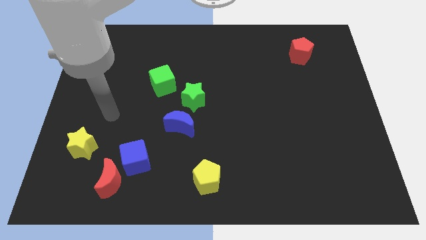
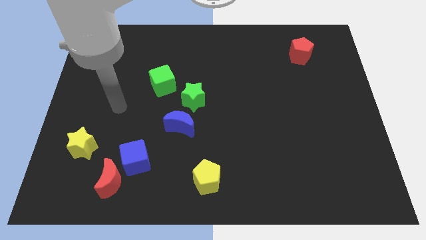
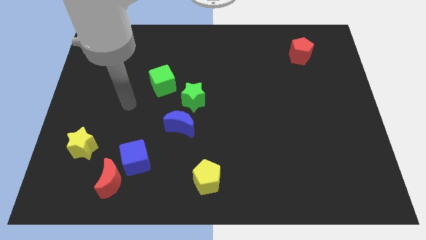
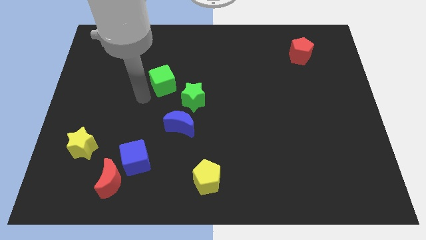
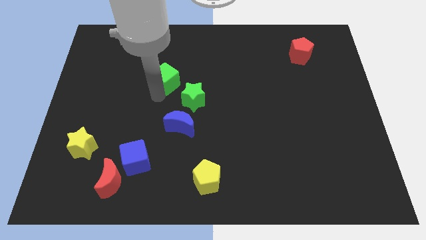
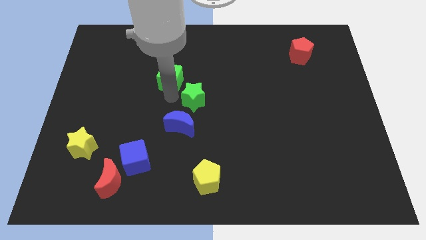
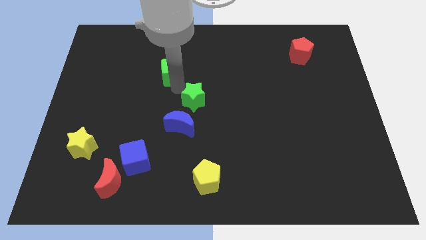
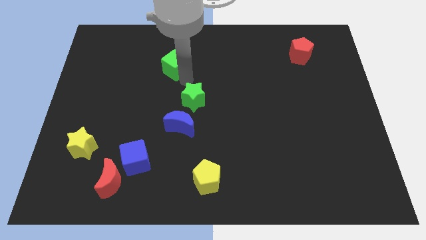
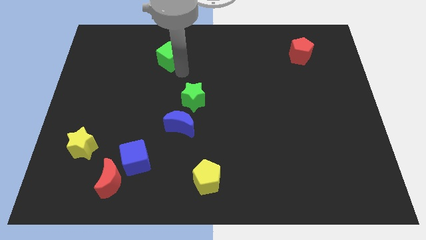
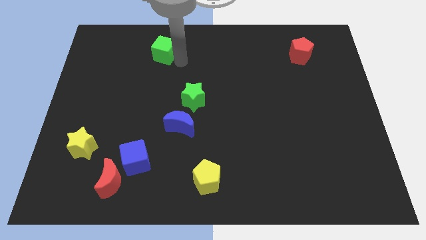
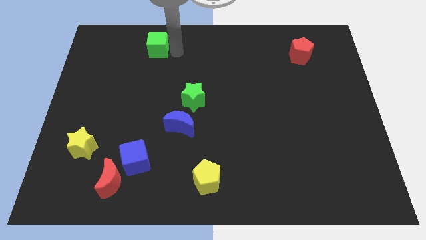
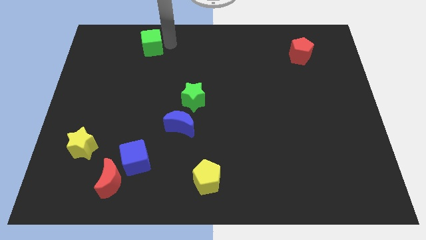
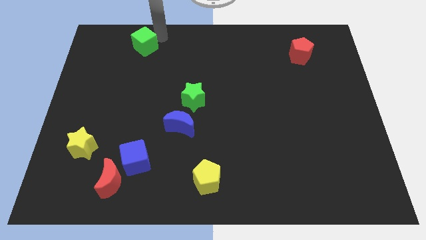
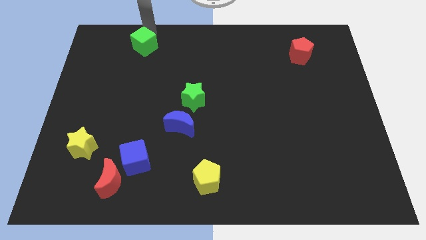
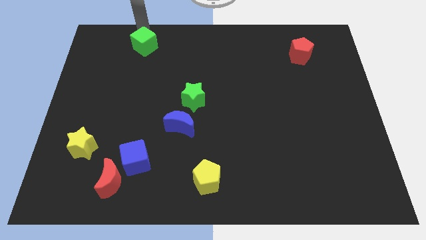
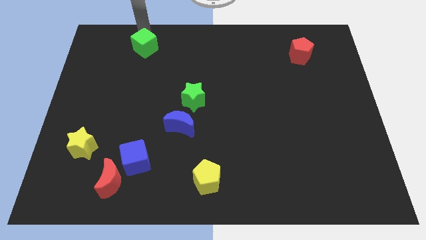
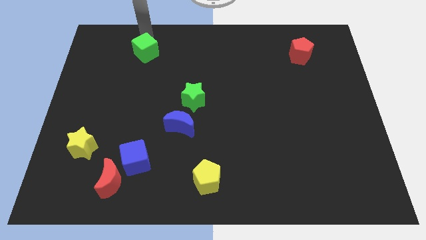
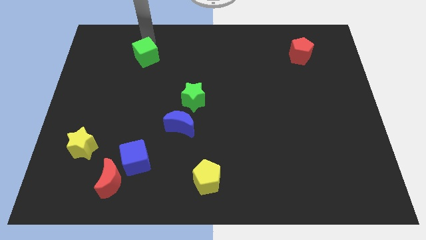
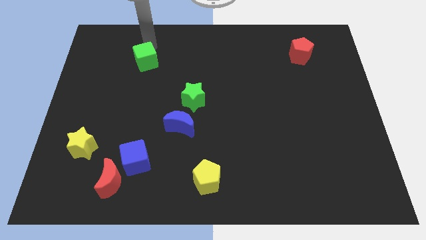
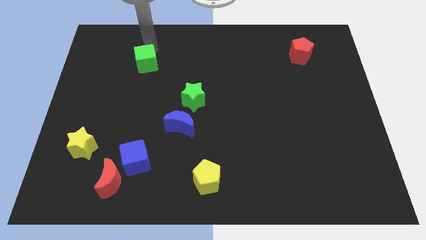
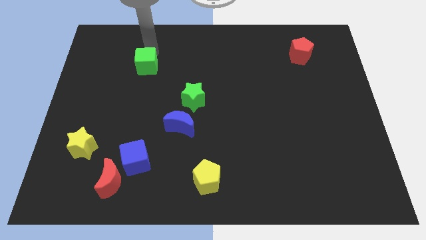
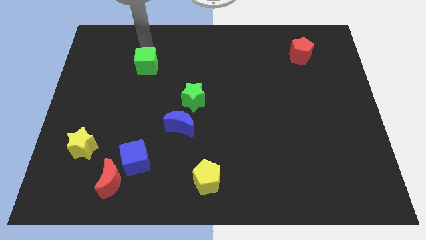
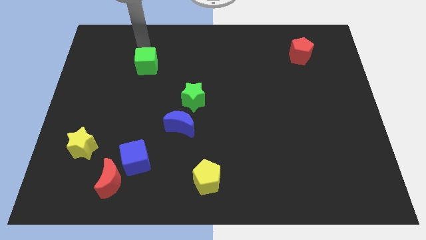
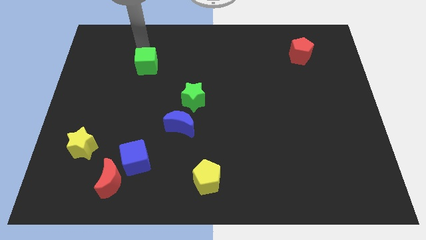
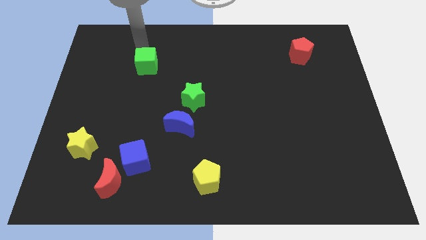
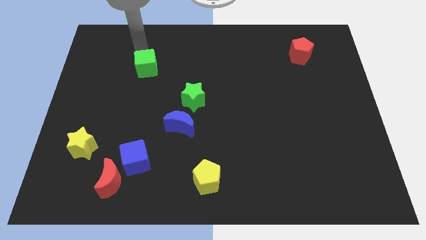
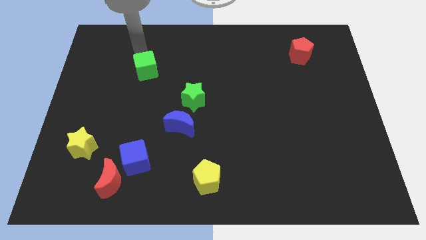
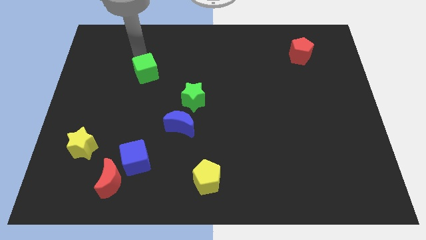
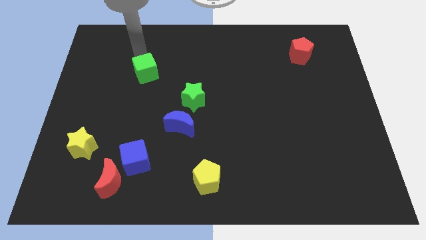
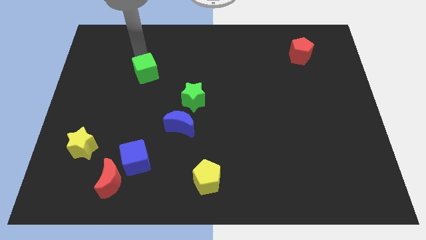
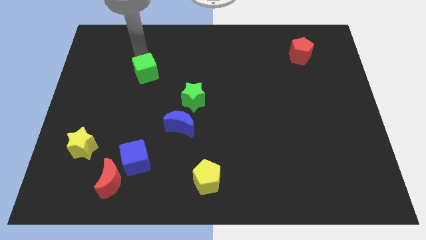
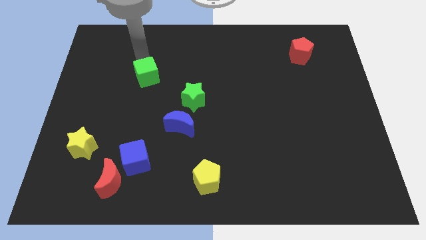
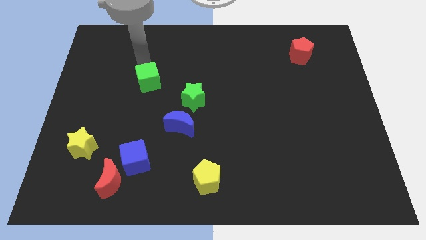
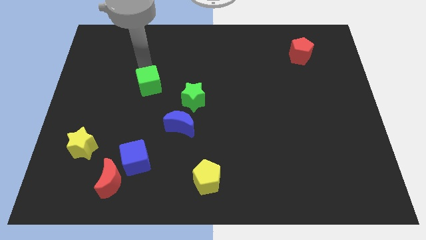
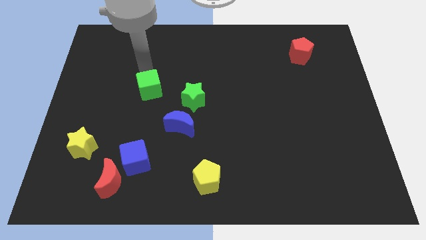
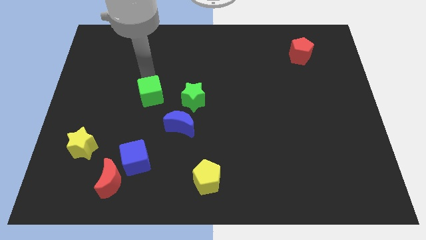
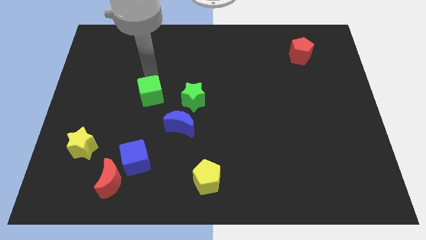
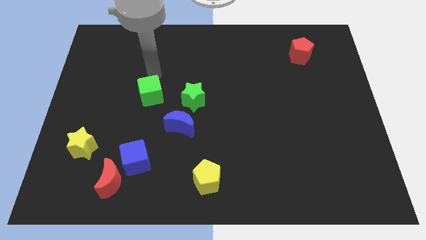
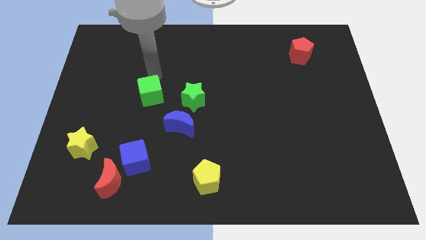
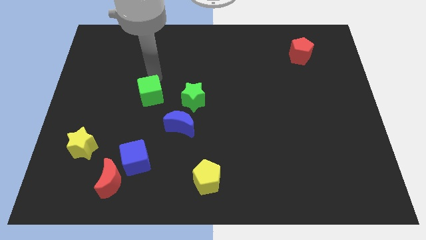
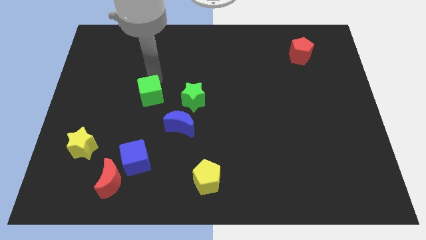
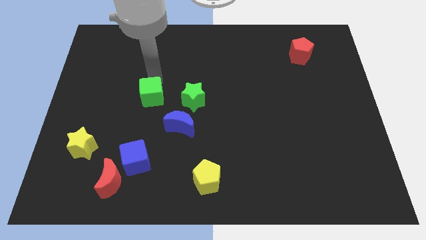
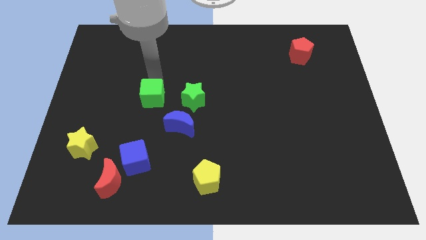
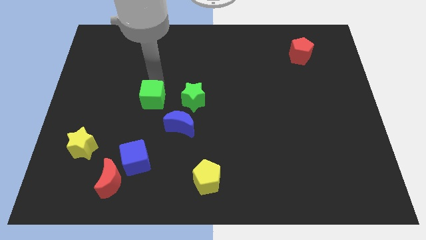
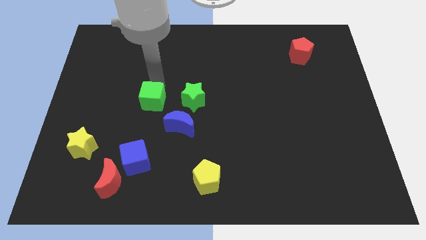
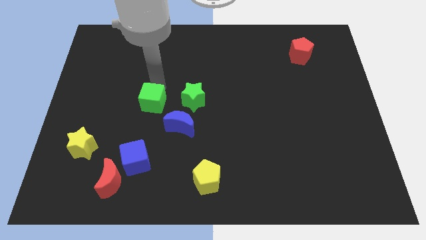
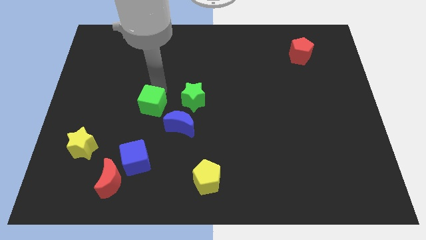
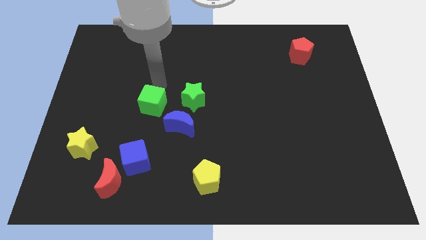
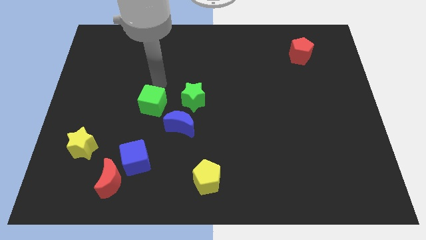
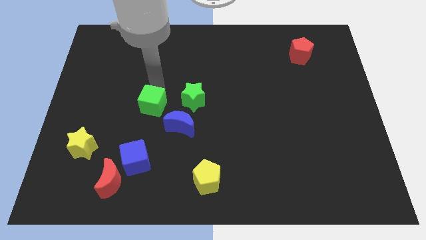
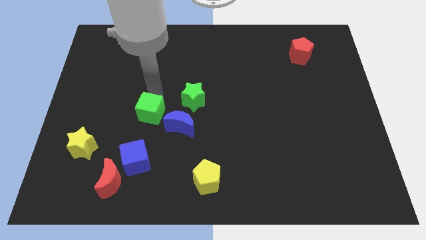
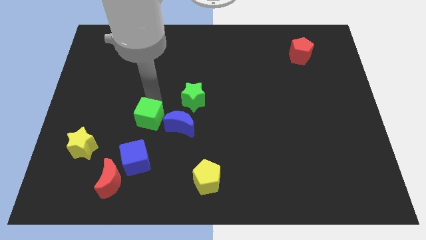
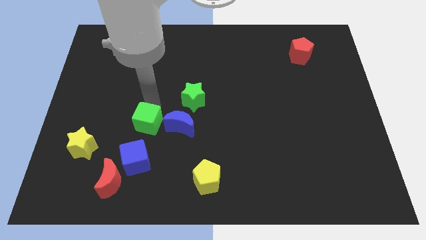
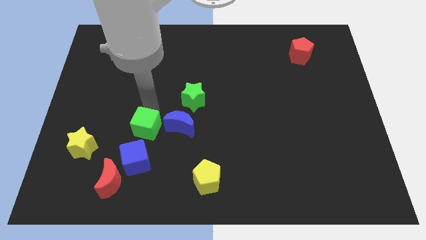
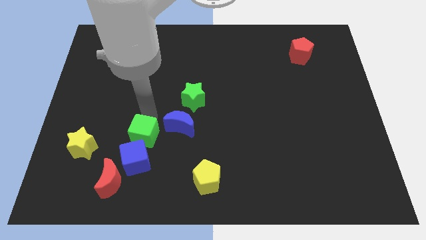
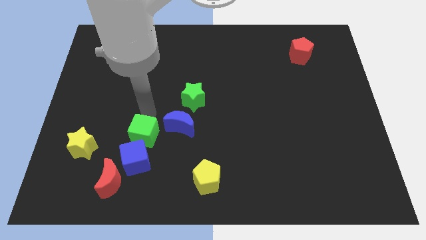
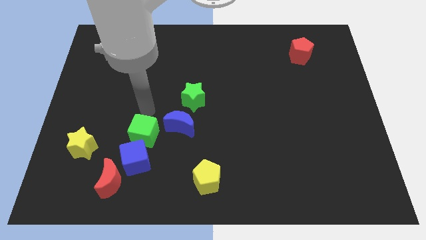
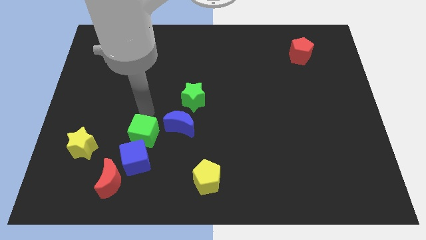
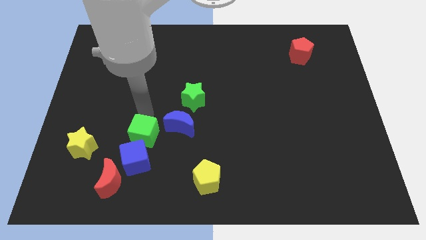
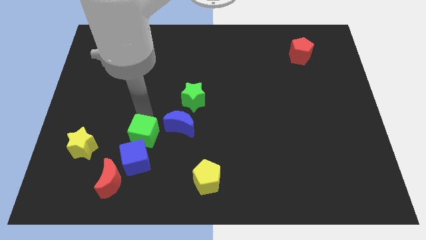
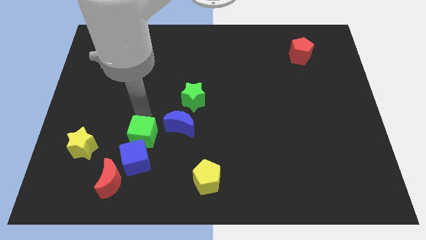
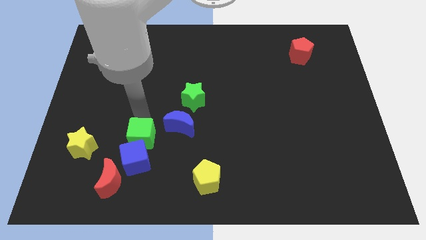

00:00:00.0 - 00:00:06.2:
slide the green cube next to the blue cube

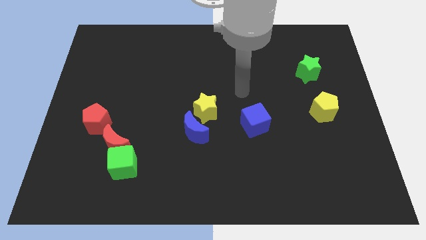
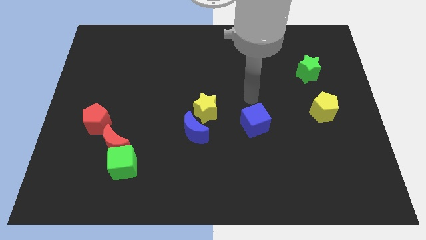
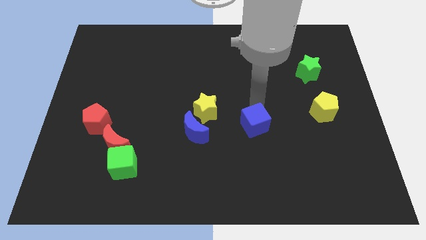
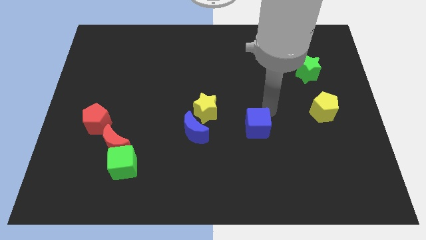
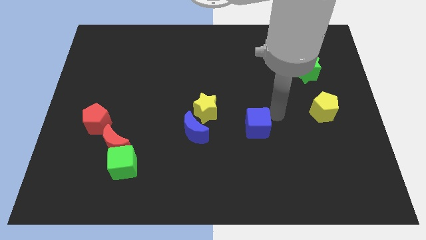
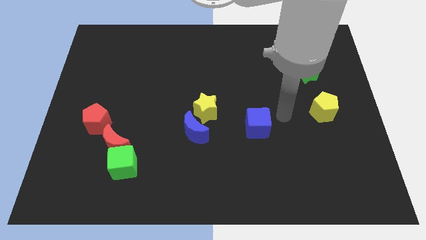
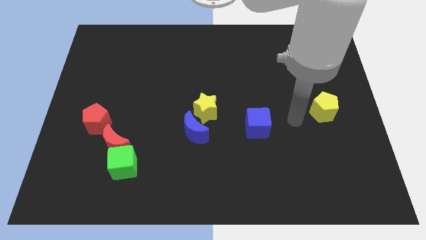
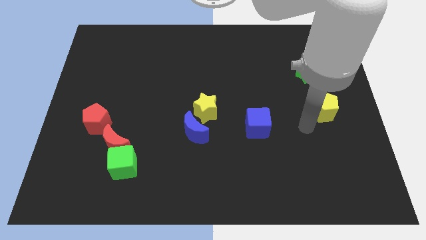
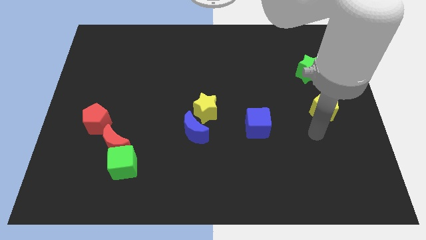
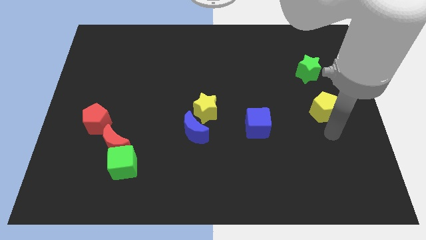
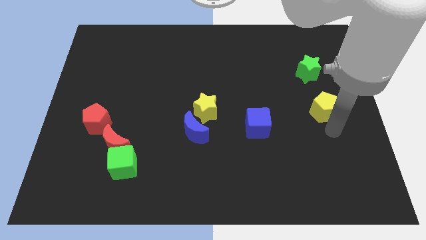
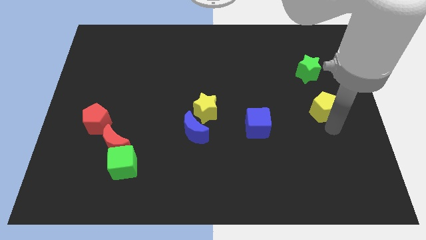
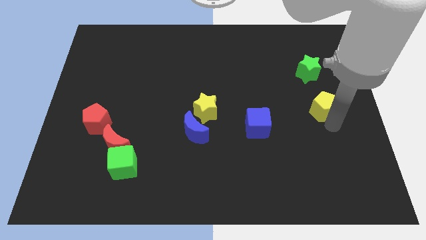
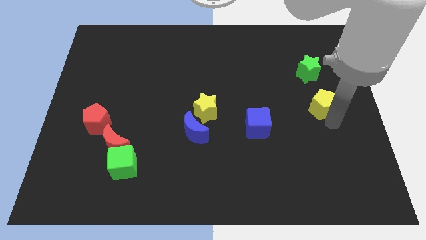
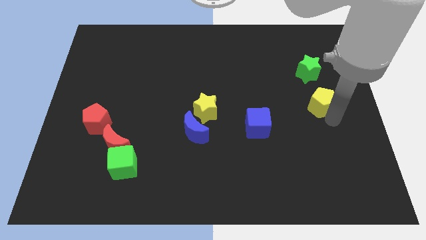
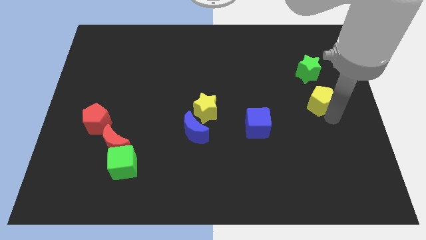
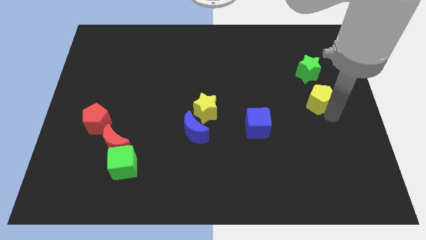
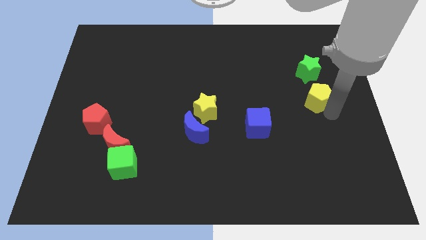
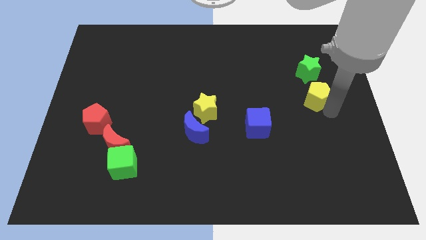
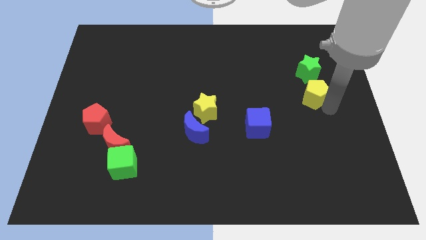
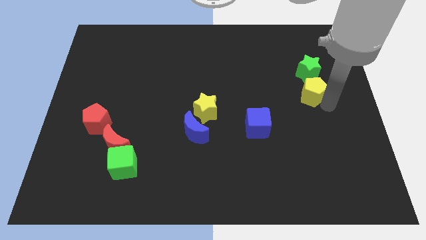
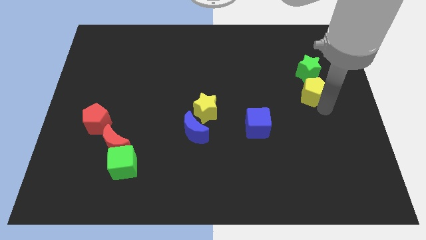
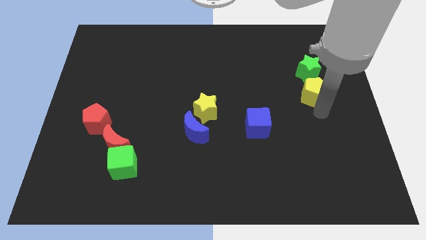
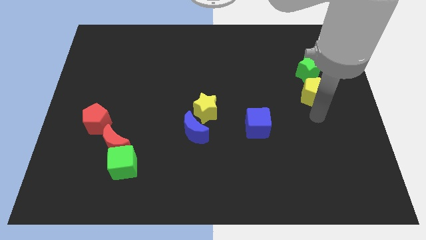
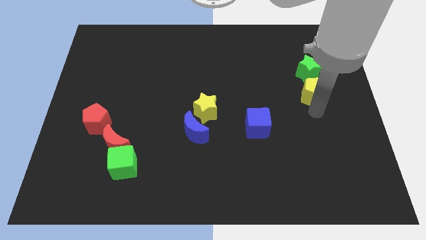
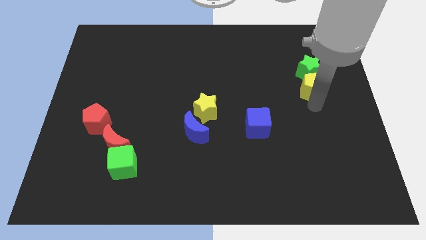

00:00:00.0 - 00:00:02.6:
push the yellow pentagon to the green star
